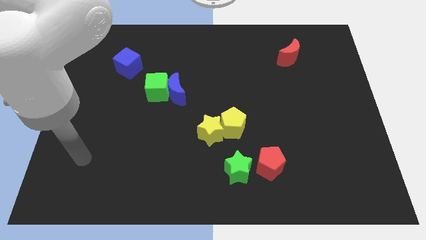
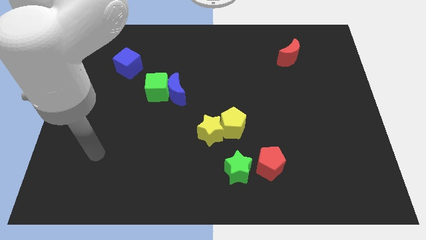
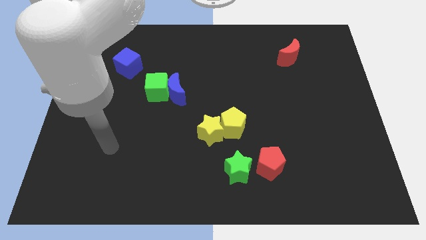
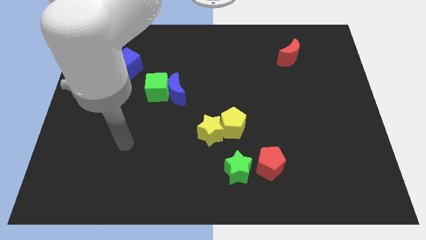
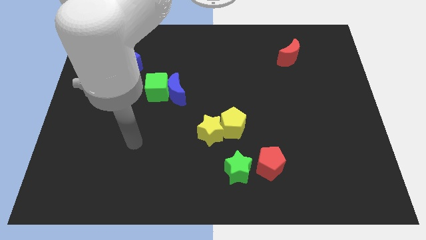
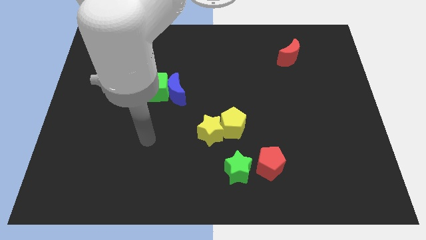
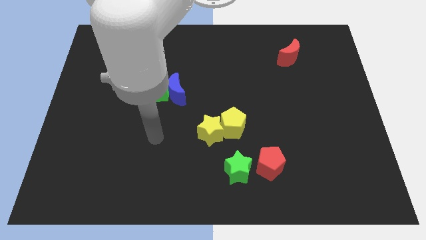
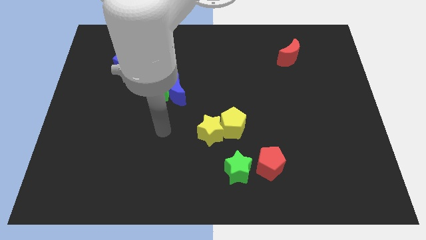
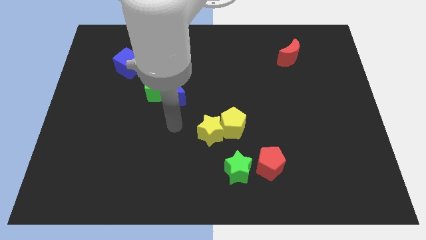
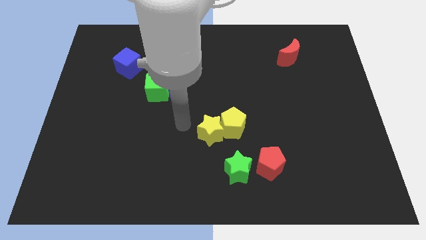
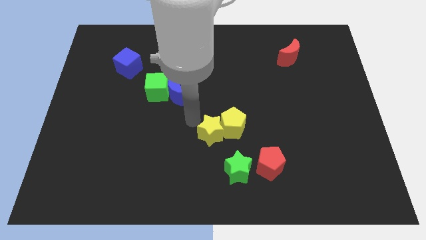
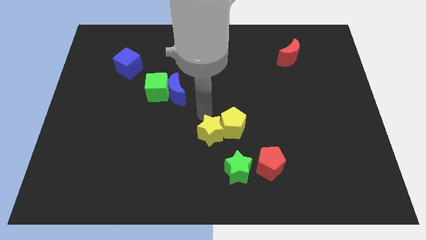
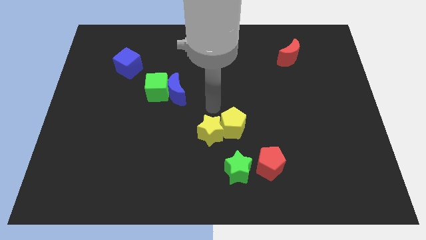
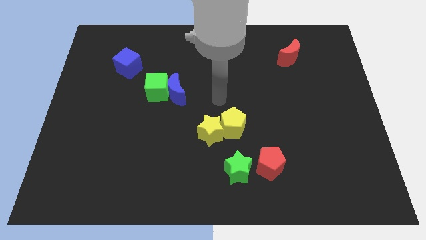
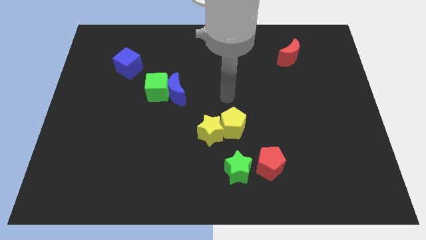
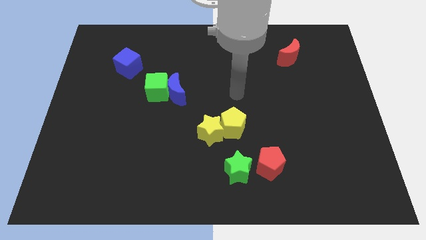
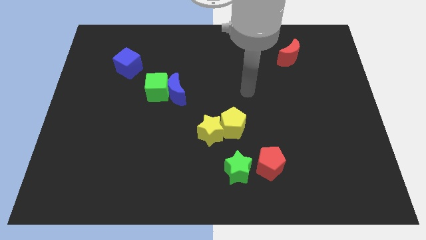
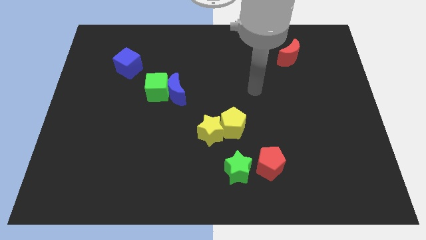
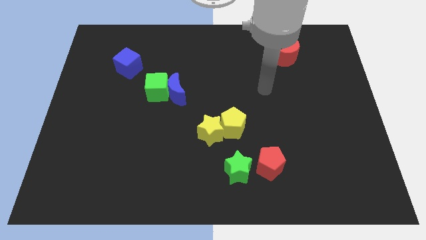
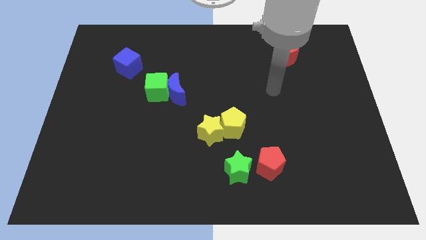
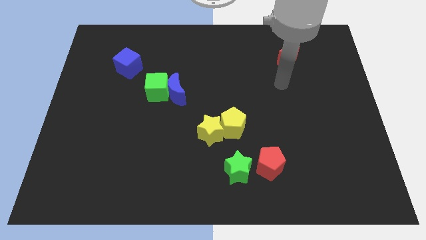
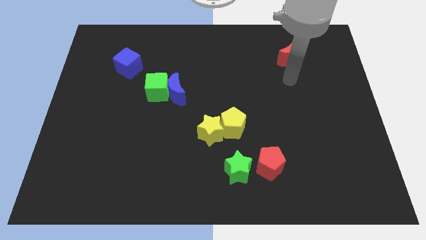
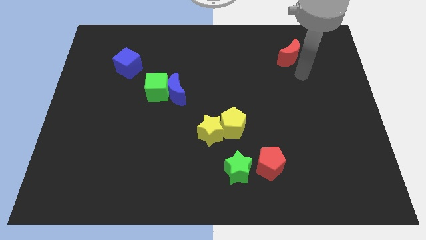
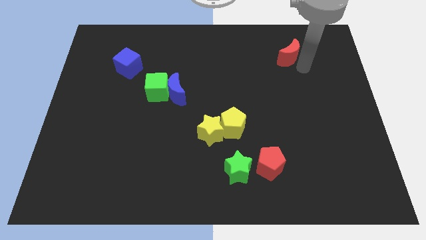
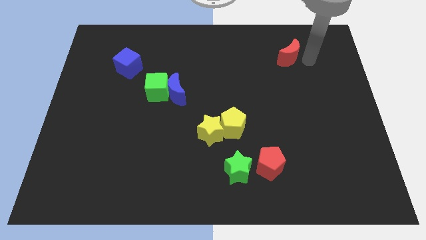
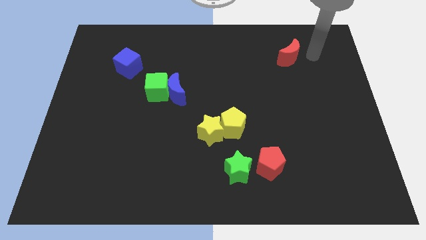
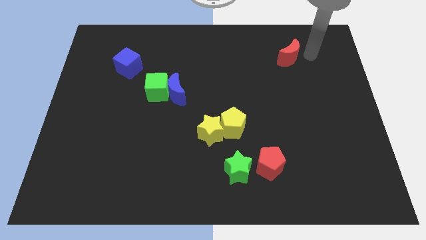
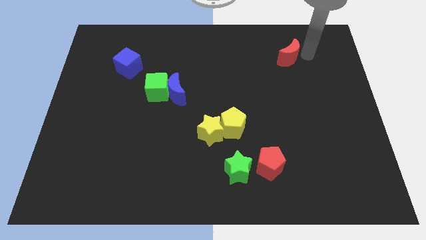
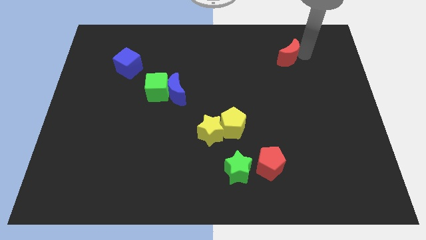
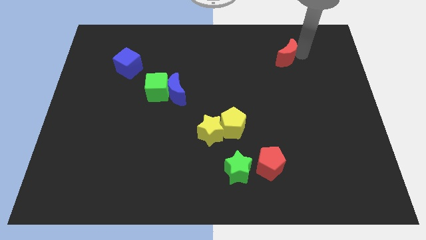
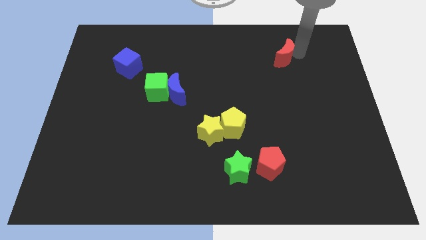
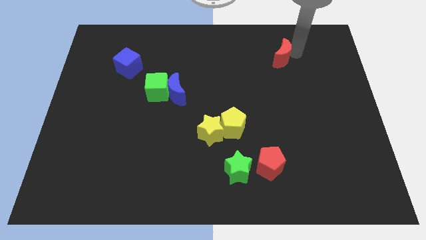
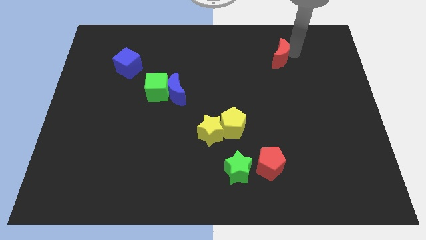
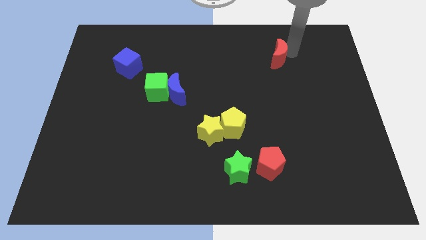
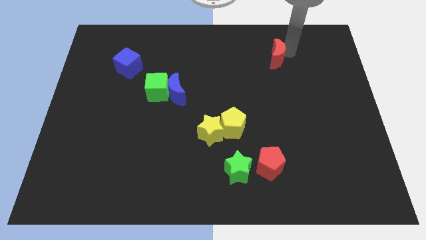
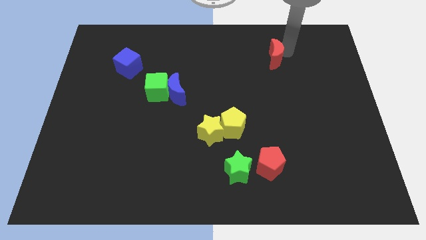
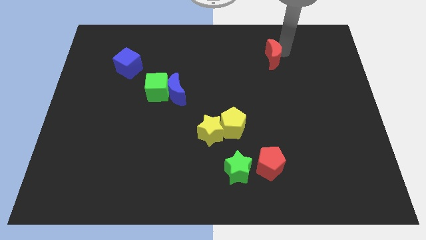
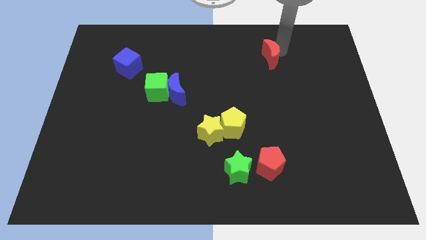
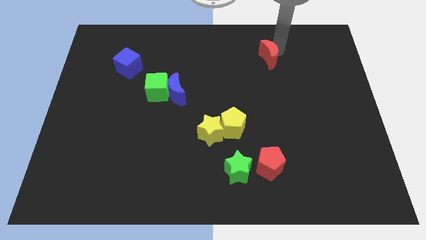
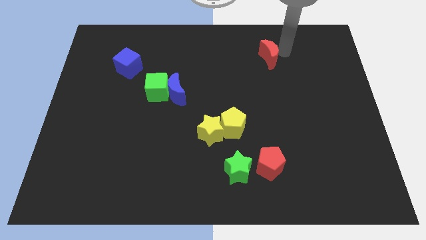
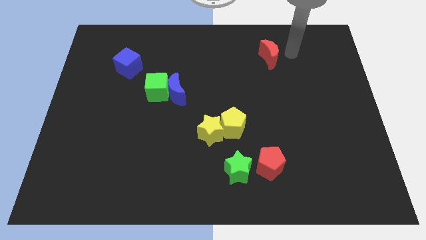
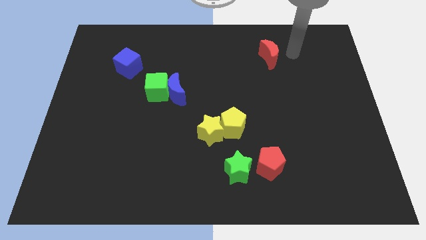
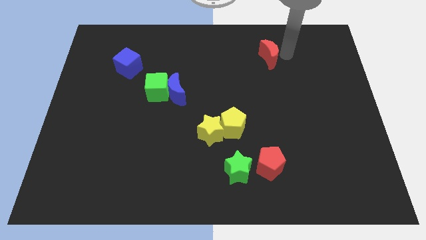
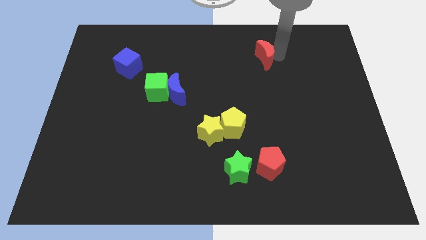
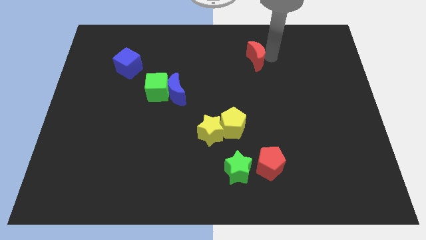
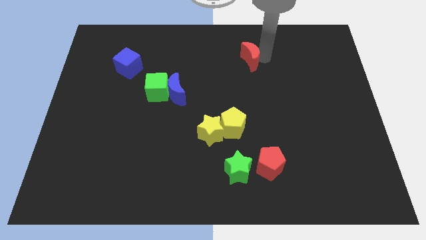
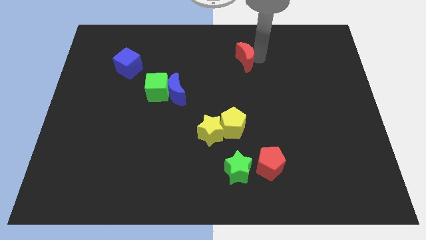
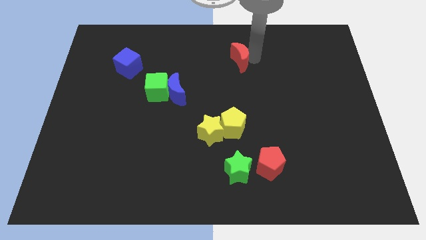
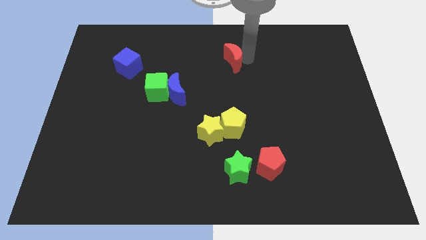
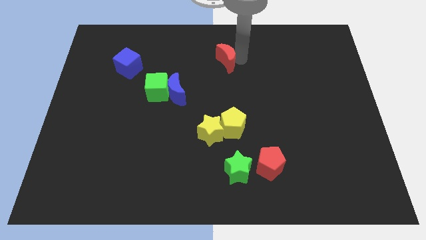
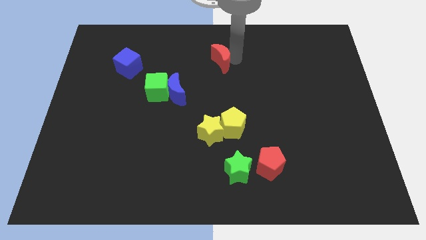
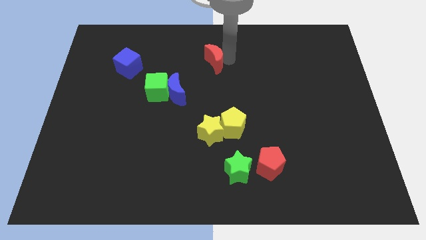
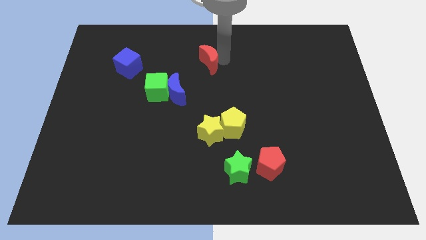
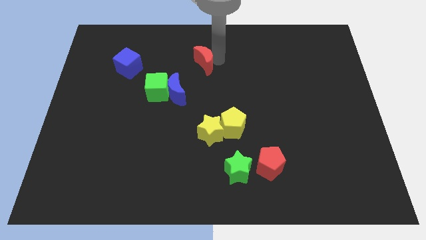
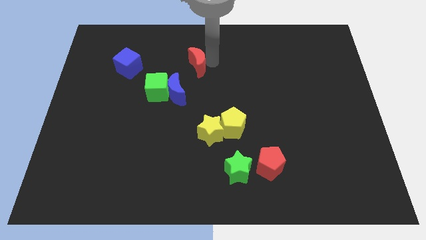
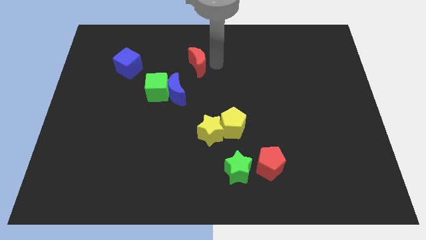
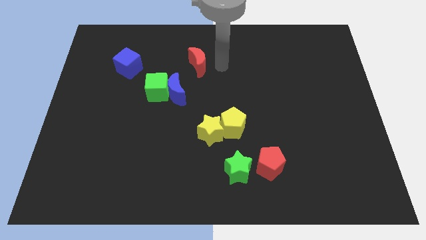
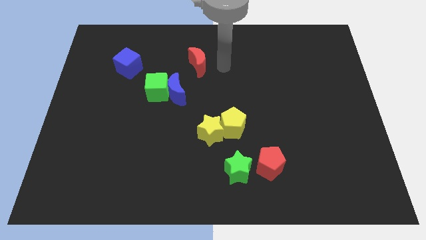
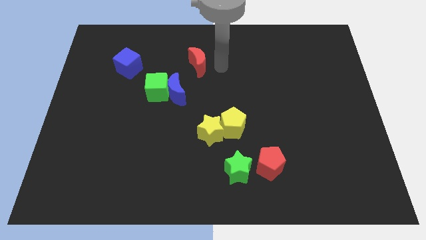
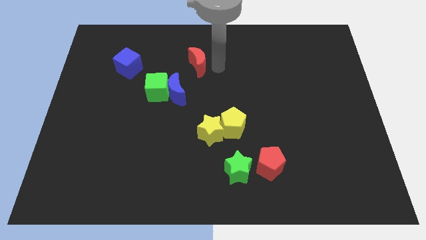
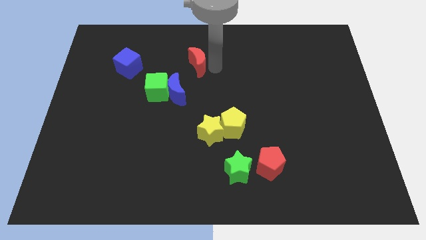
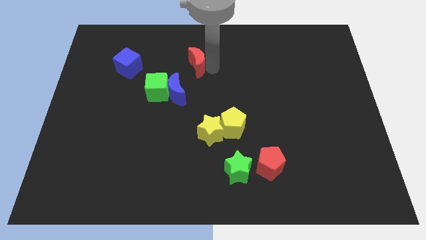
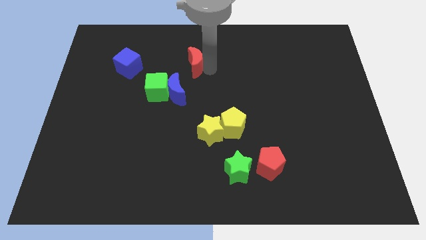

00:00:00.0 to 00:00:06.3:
move the red moon to the top side of the blue moon
